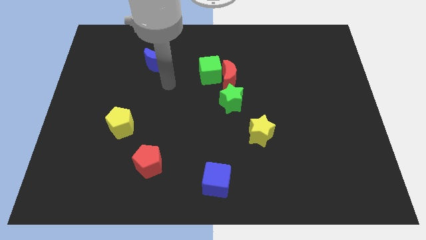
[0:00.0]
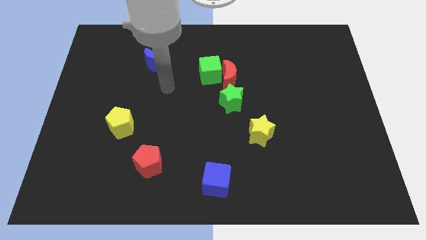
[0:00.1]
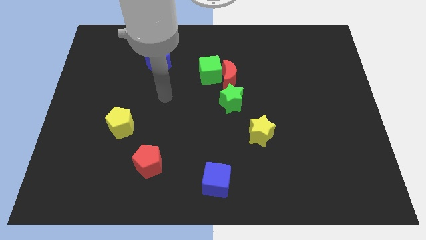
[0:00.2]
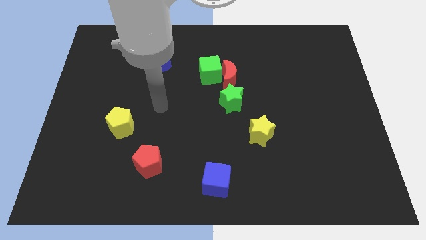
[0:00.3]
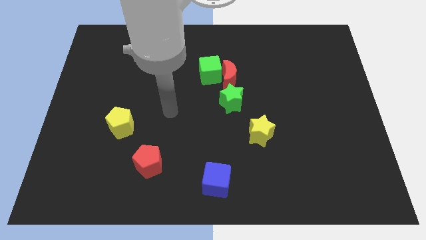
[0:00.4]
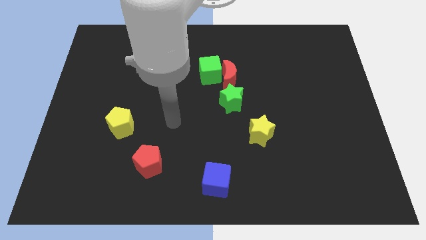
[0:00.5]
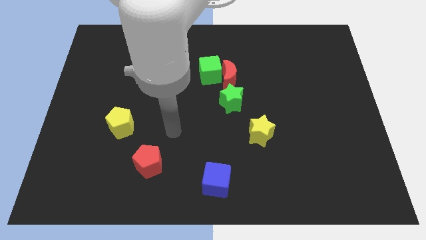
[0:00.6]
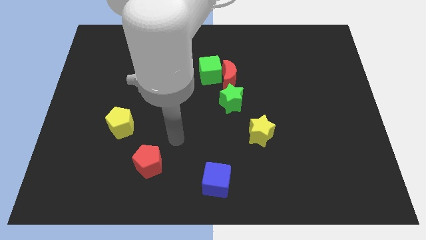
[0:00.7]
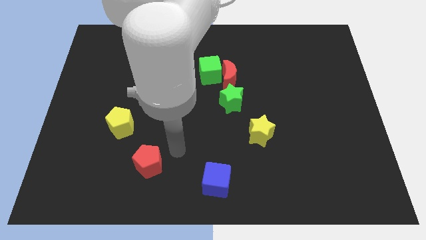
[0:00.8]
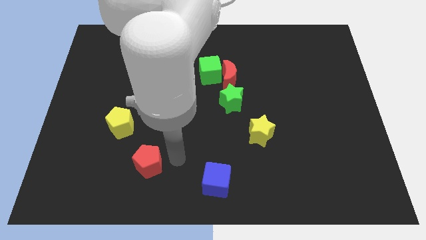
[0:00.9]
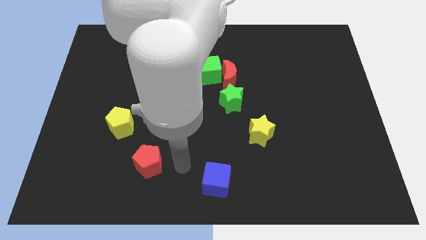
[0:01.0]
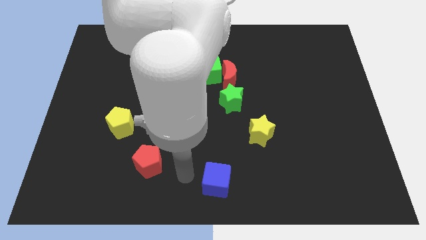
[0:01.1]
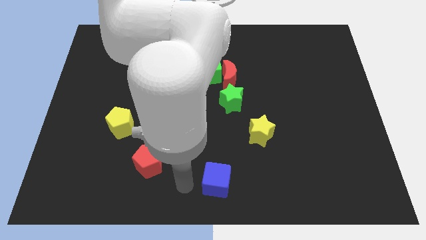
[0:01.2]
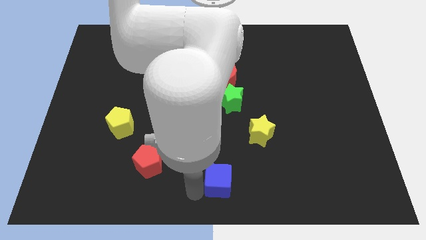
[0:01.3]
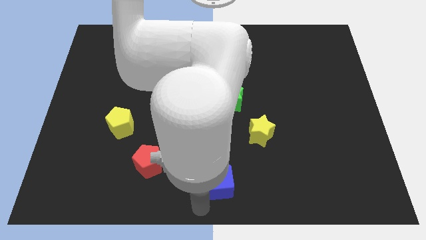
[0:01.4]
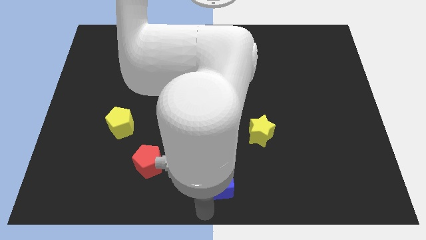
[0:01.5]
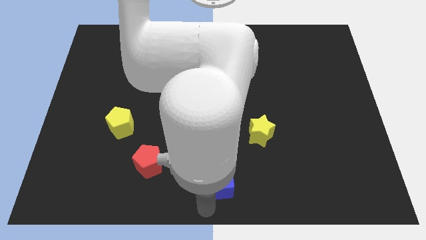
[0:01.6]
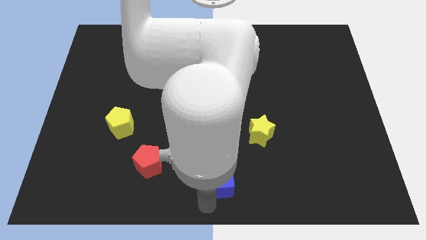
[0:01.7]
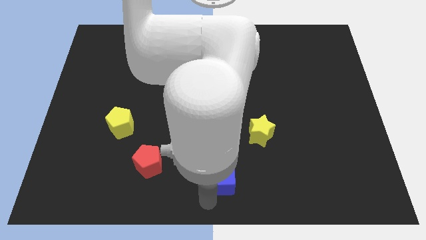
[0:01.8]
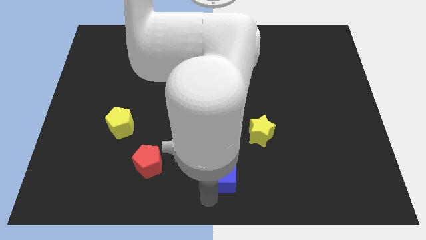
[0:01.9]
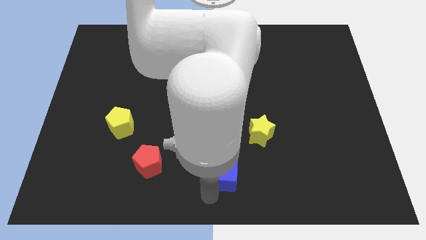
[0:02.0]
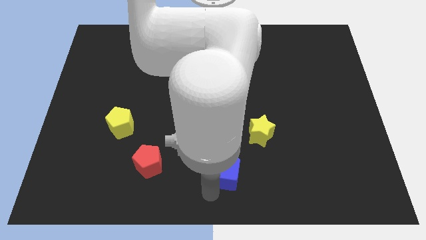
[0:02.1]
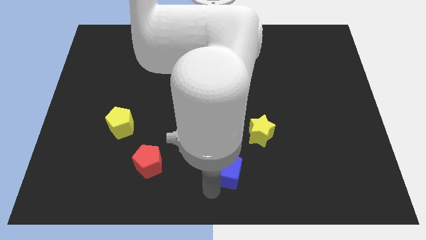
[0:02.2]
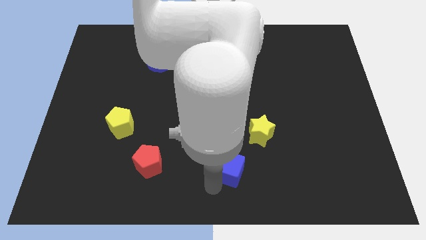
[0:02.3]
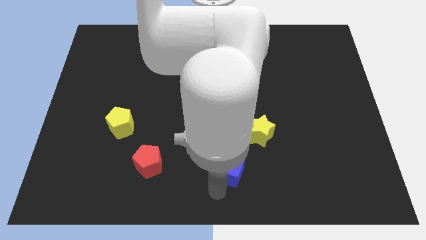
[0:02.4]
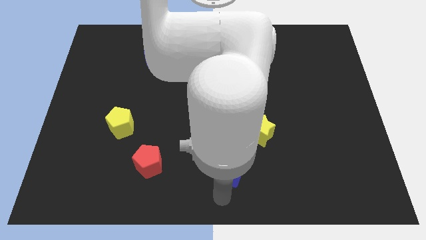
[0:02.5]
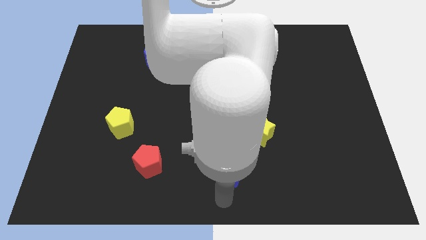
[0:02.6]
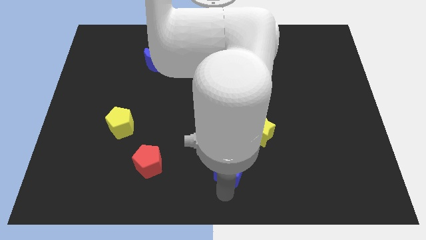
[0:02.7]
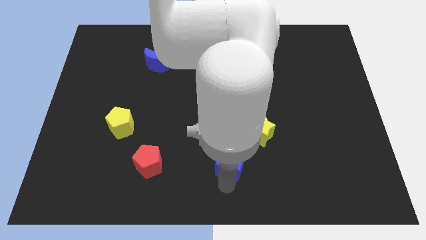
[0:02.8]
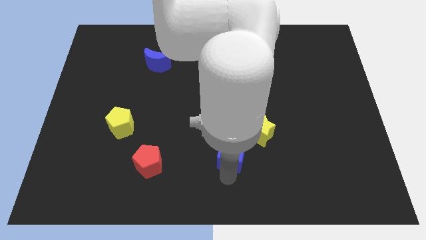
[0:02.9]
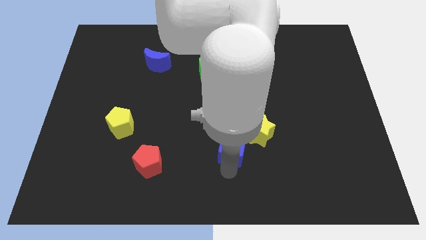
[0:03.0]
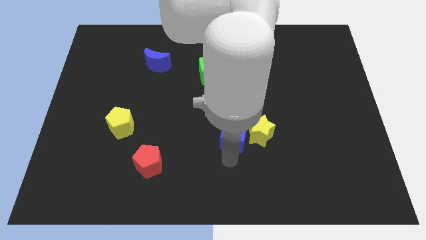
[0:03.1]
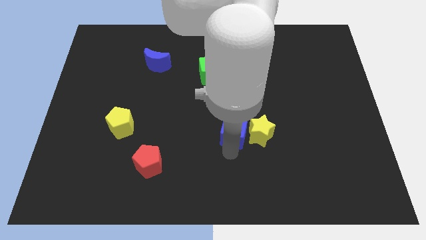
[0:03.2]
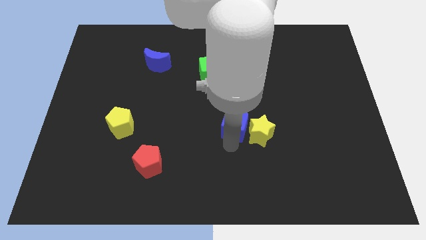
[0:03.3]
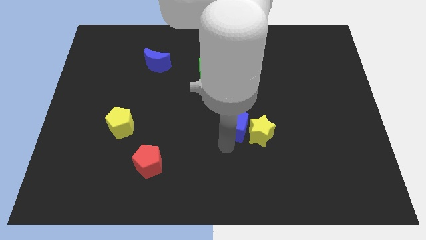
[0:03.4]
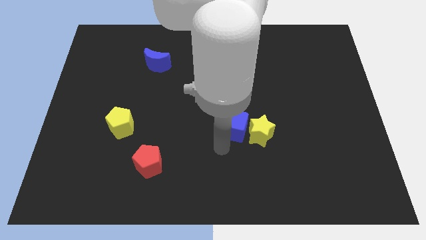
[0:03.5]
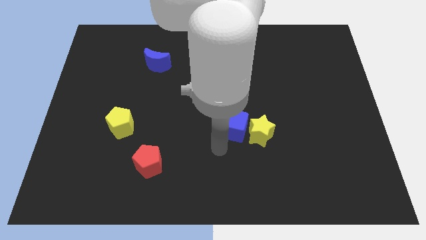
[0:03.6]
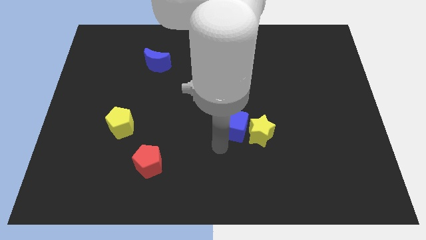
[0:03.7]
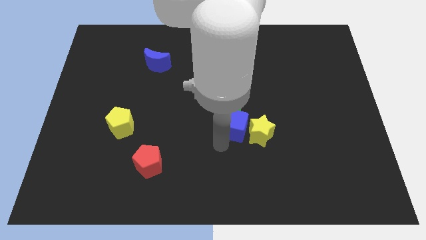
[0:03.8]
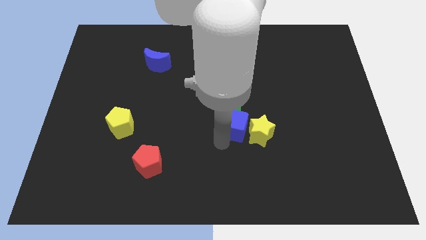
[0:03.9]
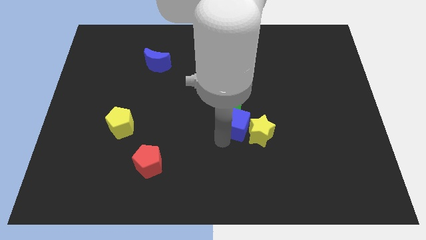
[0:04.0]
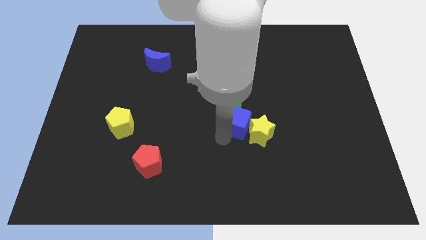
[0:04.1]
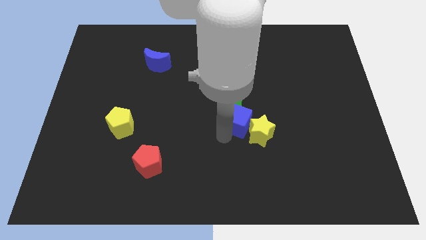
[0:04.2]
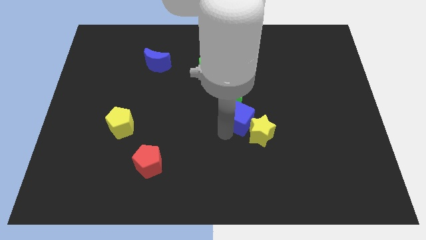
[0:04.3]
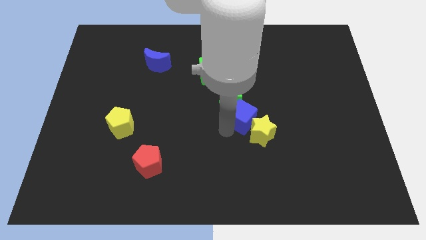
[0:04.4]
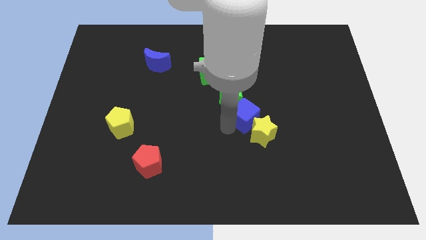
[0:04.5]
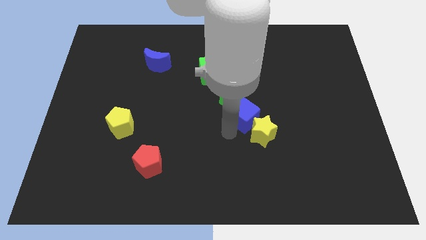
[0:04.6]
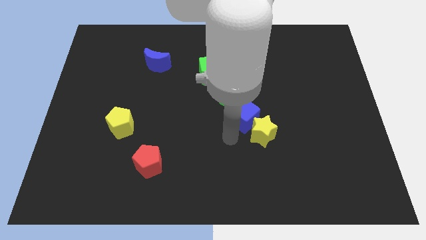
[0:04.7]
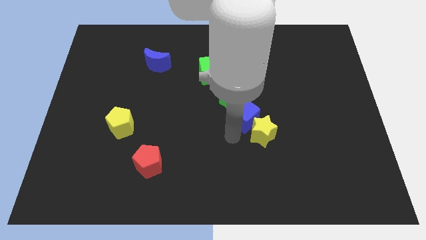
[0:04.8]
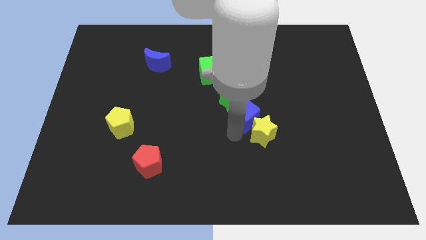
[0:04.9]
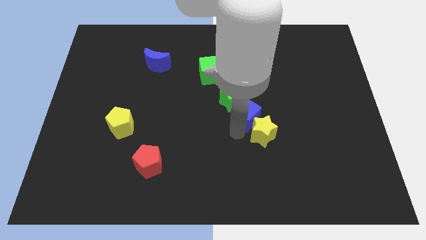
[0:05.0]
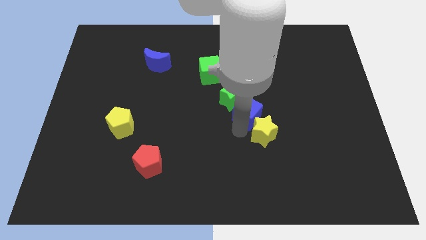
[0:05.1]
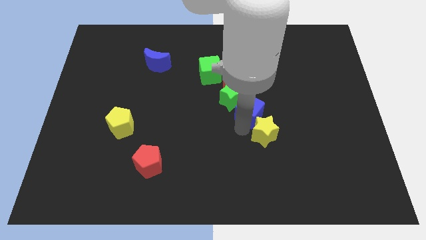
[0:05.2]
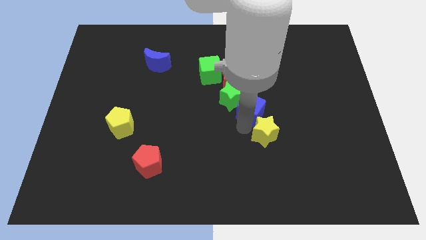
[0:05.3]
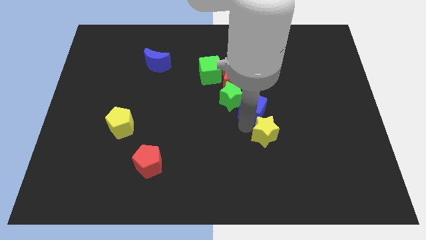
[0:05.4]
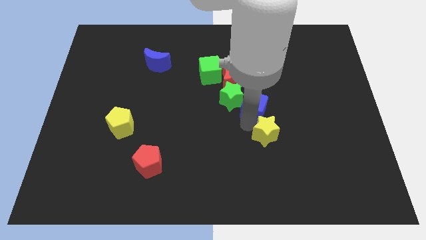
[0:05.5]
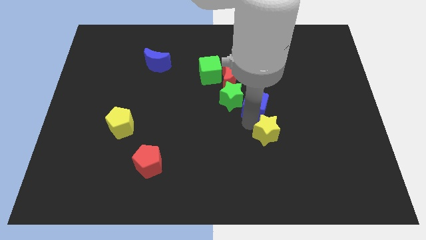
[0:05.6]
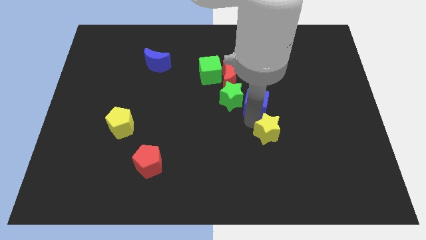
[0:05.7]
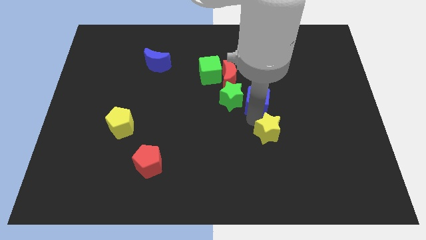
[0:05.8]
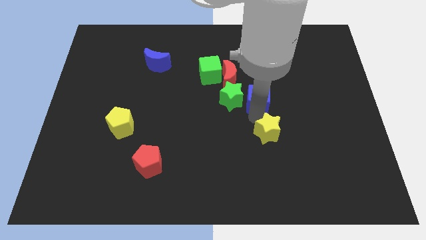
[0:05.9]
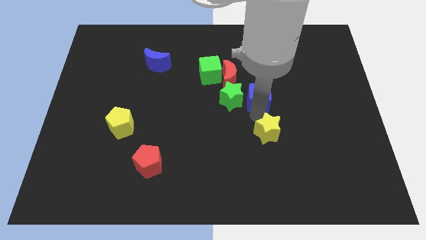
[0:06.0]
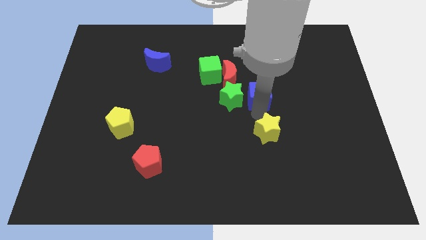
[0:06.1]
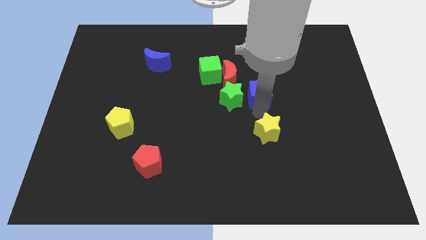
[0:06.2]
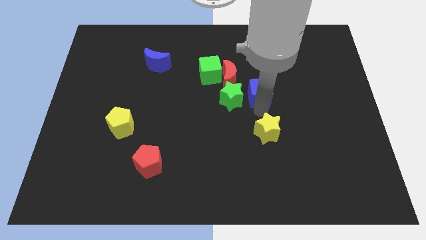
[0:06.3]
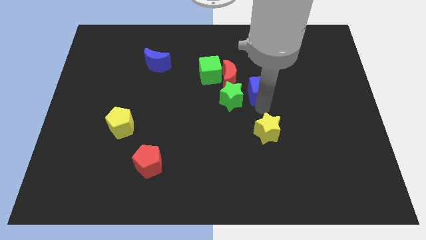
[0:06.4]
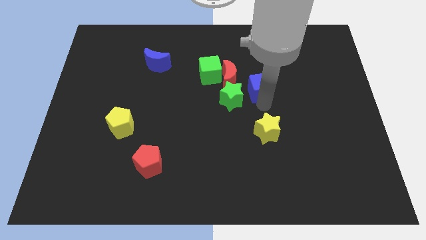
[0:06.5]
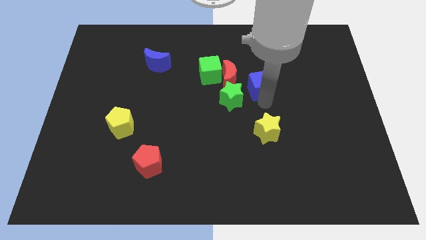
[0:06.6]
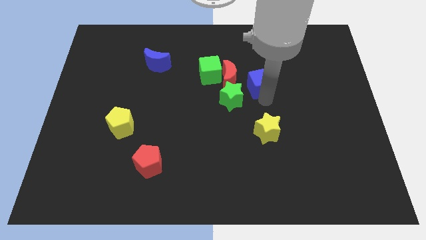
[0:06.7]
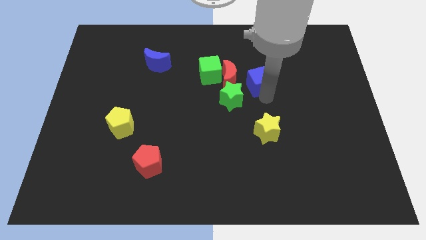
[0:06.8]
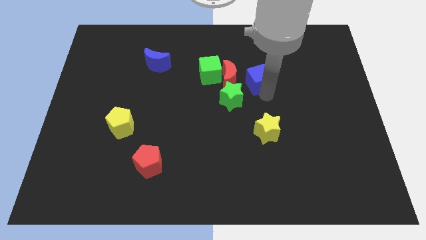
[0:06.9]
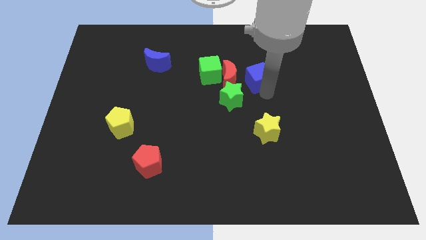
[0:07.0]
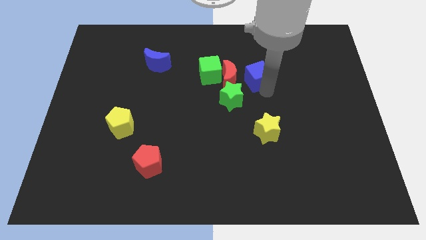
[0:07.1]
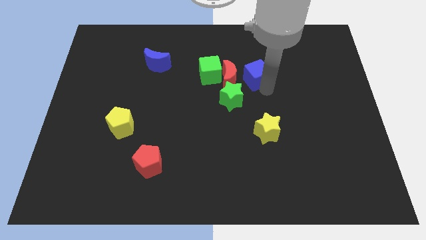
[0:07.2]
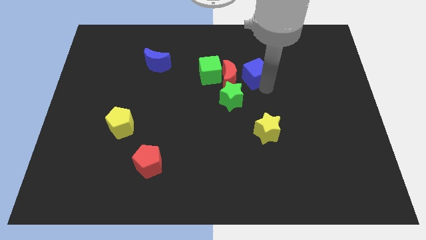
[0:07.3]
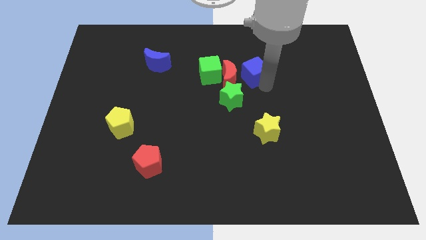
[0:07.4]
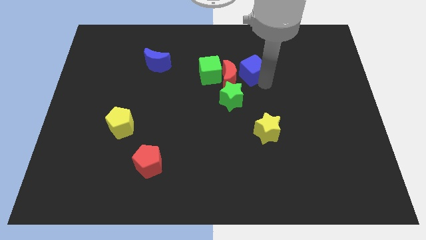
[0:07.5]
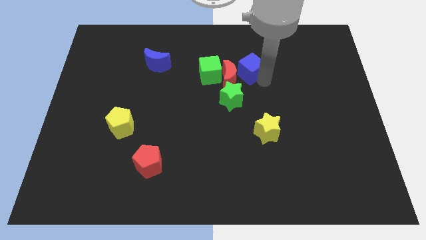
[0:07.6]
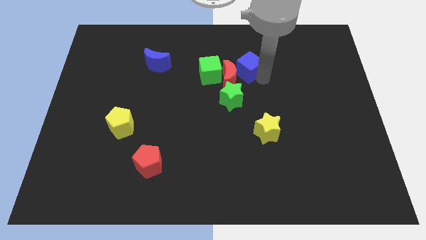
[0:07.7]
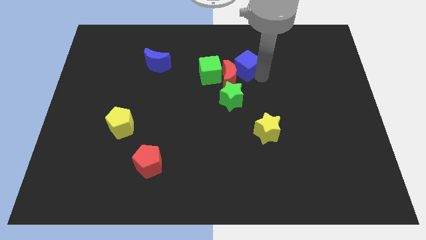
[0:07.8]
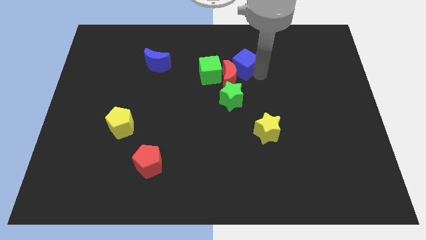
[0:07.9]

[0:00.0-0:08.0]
slide the blue cube to the top right of the green cube
